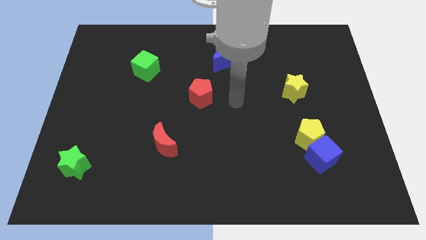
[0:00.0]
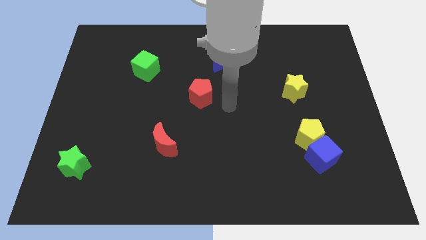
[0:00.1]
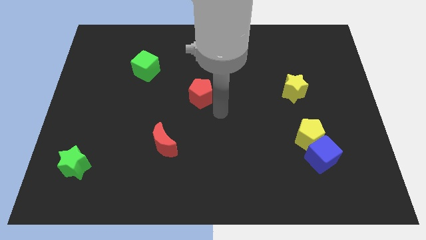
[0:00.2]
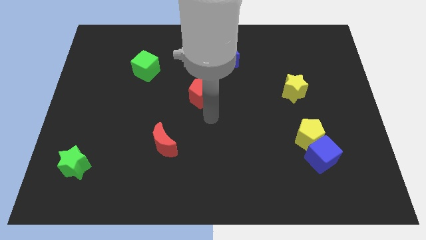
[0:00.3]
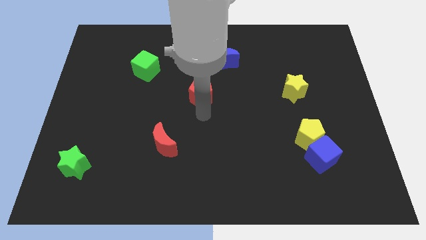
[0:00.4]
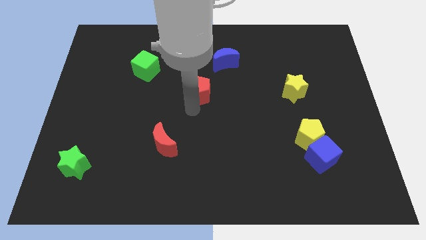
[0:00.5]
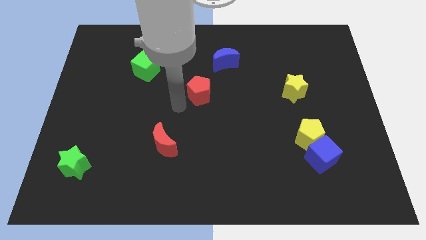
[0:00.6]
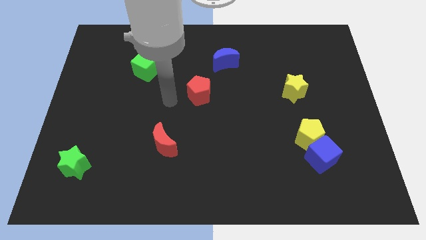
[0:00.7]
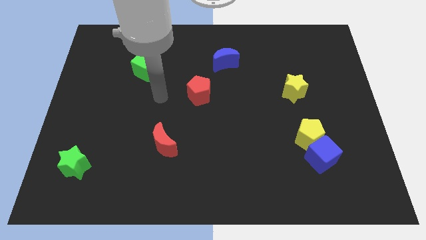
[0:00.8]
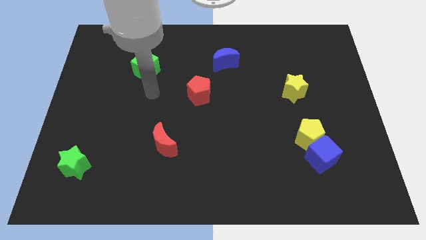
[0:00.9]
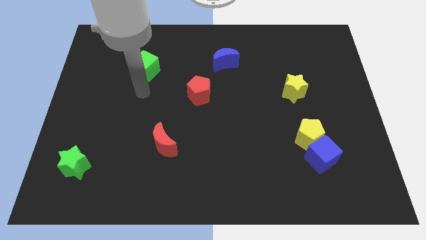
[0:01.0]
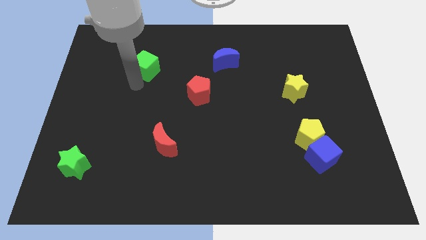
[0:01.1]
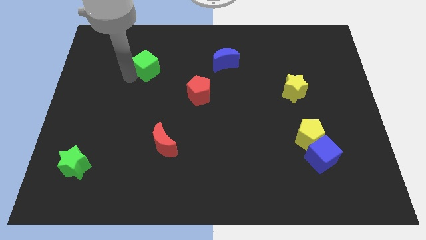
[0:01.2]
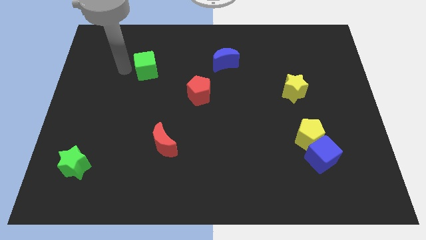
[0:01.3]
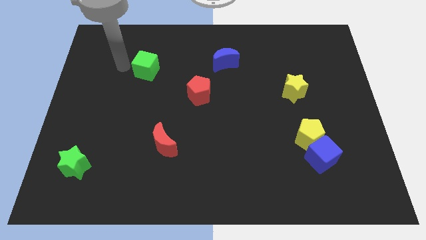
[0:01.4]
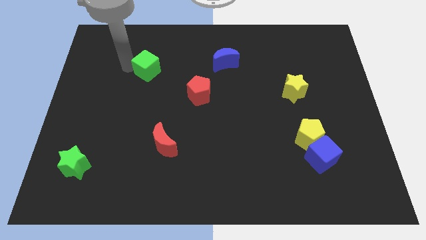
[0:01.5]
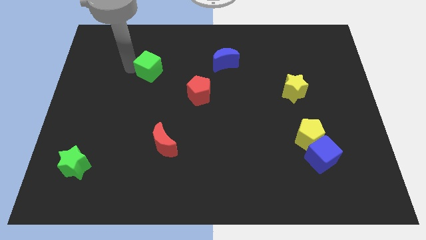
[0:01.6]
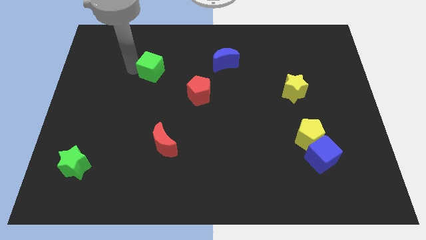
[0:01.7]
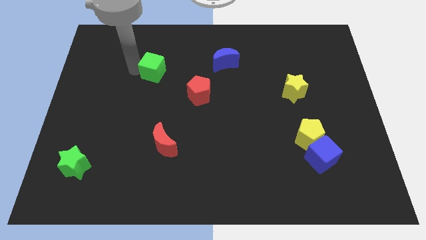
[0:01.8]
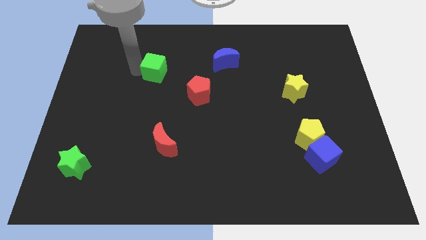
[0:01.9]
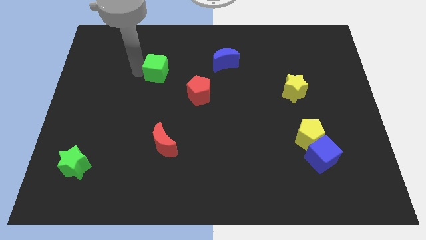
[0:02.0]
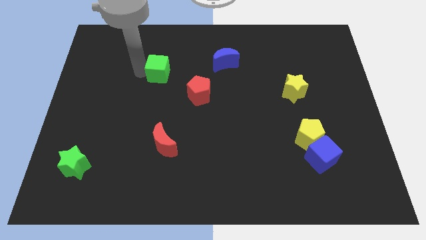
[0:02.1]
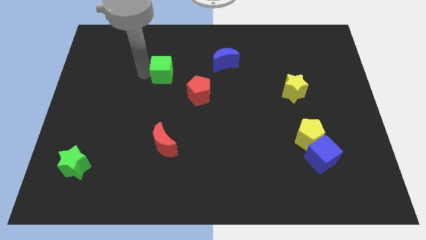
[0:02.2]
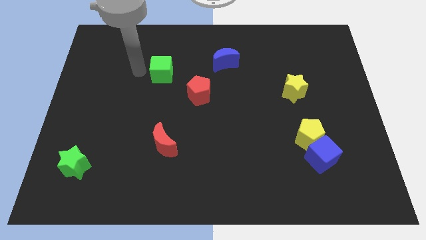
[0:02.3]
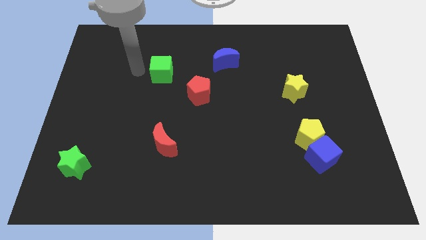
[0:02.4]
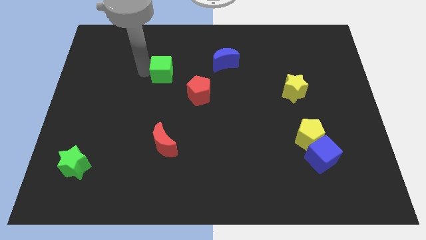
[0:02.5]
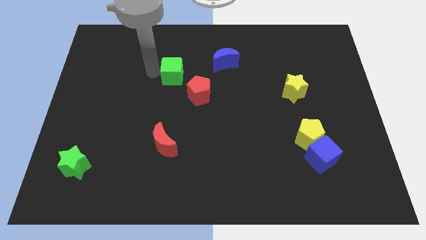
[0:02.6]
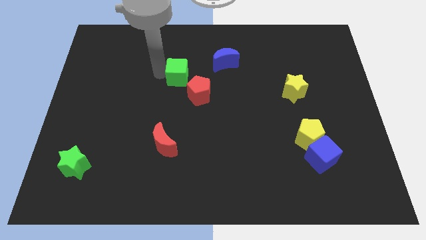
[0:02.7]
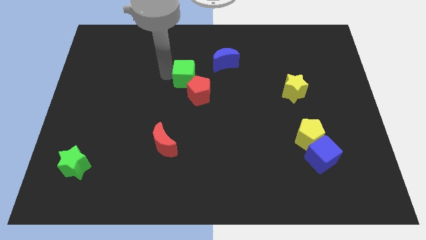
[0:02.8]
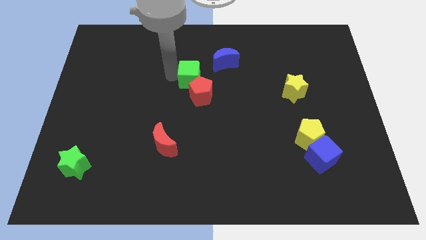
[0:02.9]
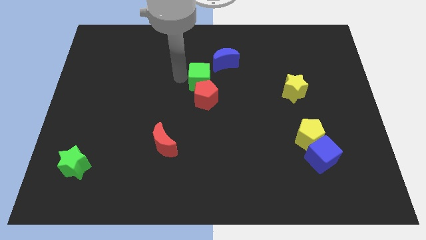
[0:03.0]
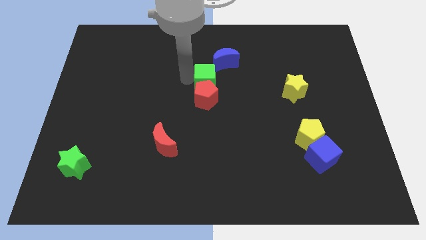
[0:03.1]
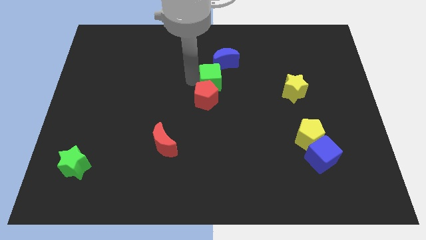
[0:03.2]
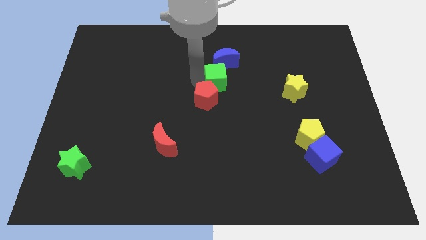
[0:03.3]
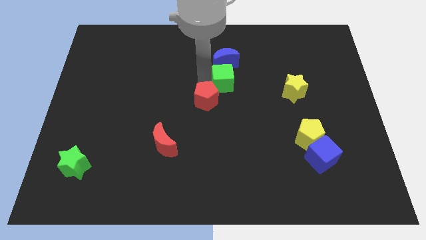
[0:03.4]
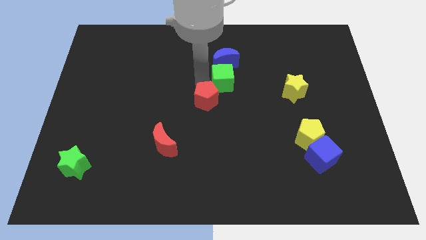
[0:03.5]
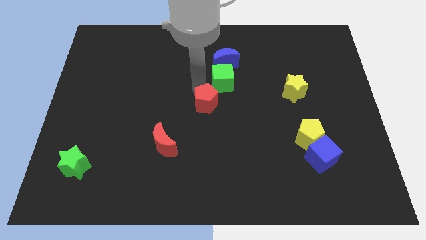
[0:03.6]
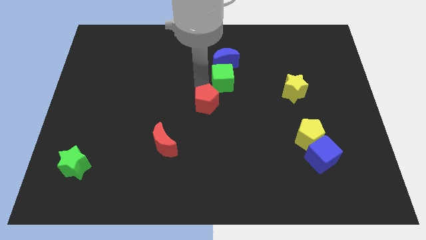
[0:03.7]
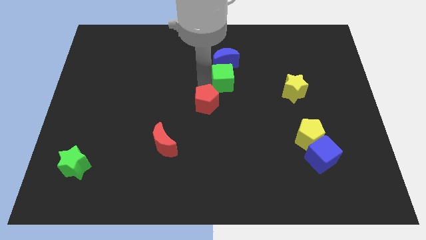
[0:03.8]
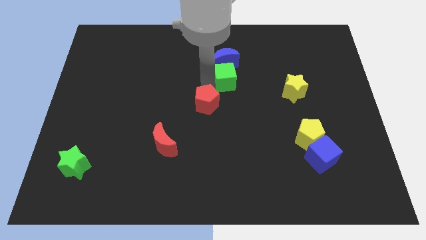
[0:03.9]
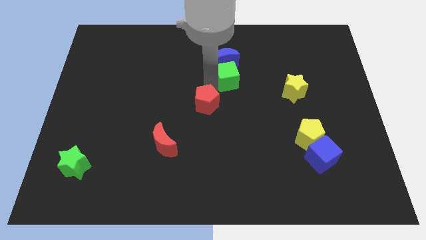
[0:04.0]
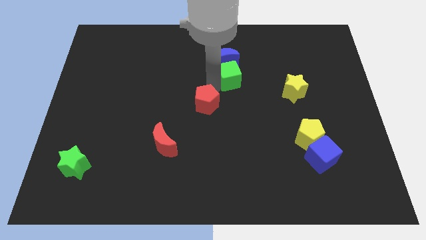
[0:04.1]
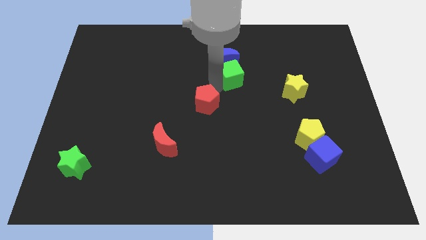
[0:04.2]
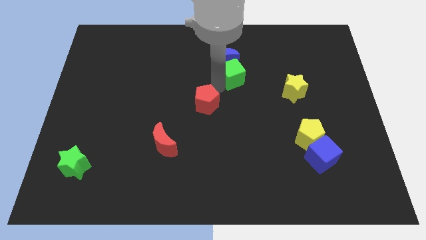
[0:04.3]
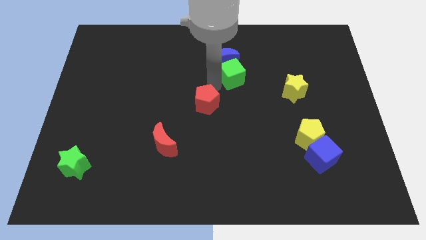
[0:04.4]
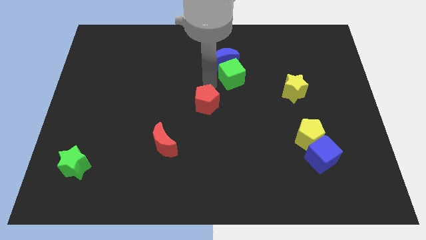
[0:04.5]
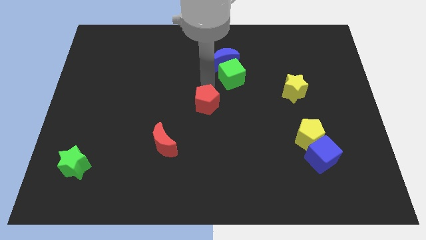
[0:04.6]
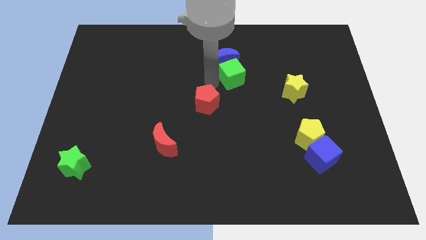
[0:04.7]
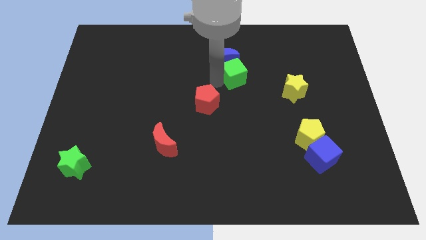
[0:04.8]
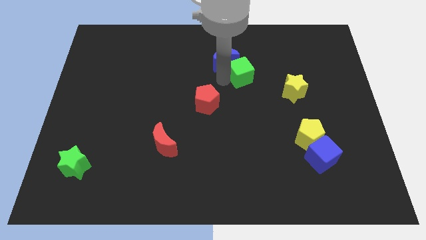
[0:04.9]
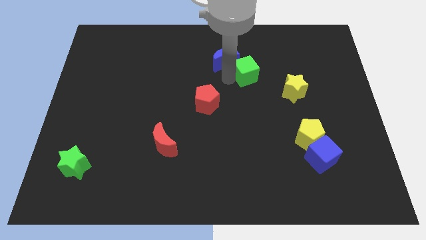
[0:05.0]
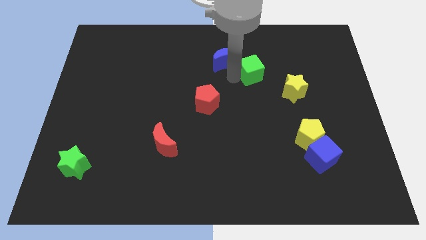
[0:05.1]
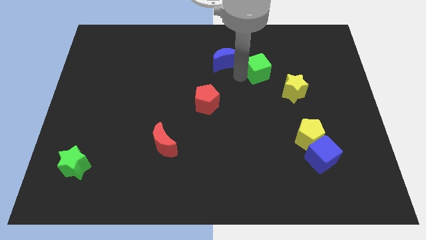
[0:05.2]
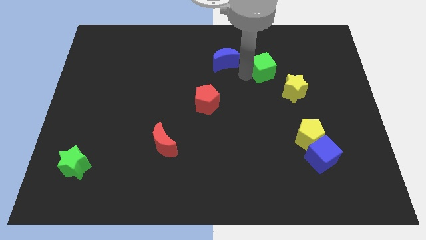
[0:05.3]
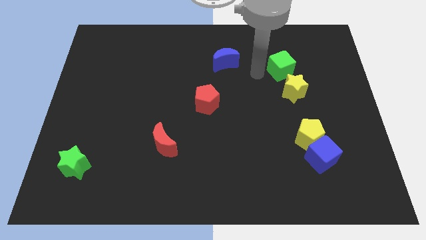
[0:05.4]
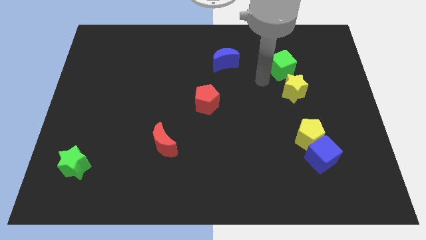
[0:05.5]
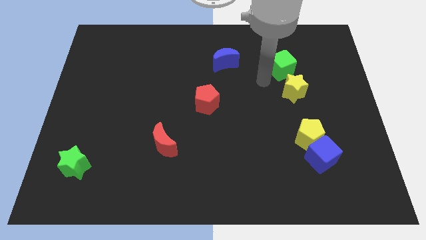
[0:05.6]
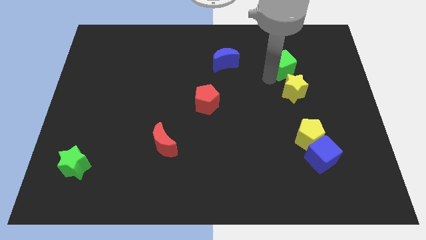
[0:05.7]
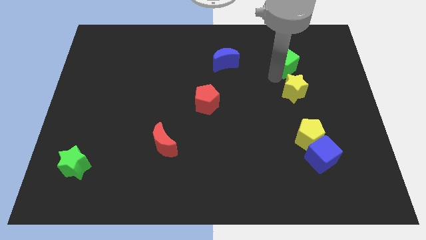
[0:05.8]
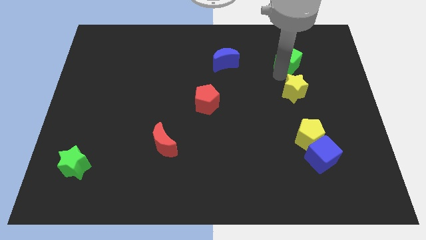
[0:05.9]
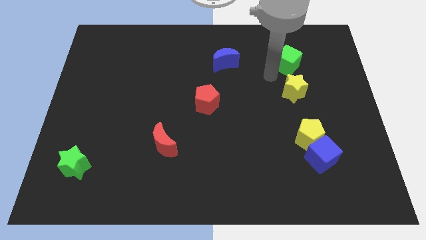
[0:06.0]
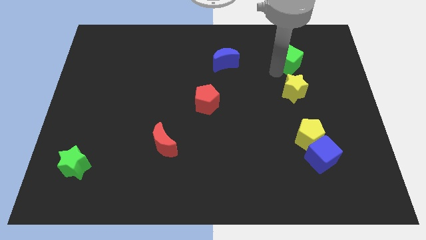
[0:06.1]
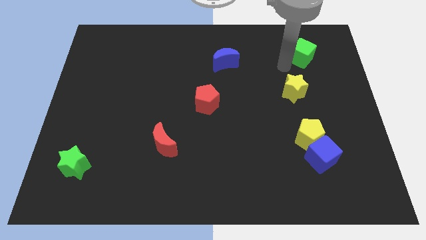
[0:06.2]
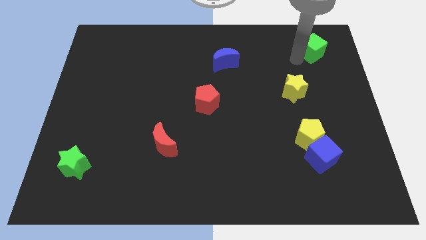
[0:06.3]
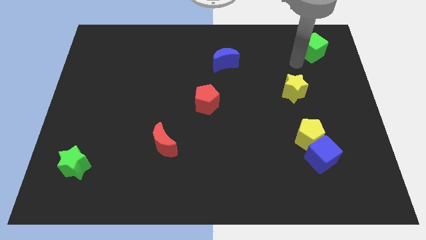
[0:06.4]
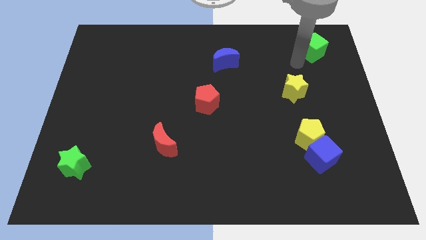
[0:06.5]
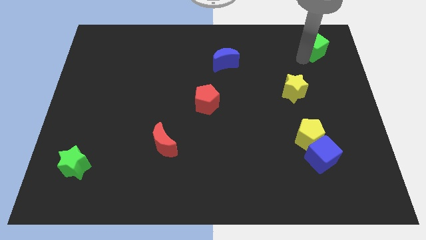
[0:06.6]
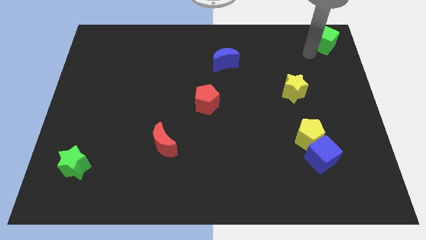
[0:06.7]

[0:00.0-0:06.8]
move the green cube to the top right of the board
